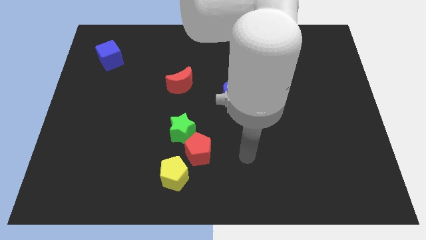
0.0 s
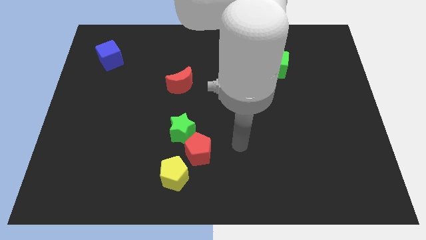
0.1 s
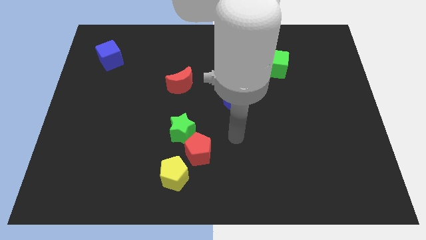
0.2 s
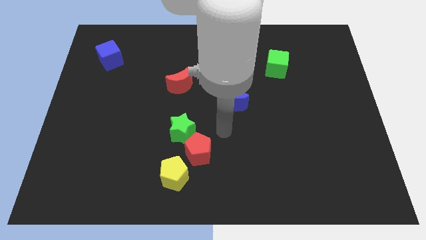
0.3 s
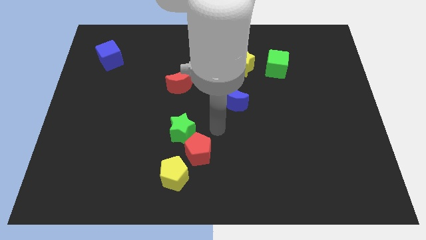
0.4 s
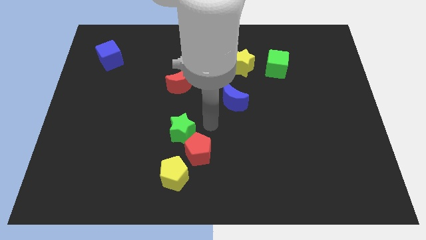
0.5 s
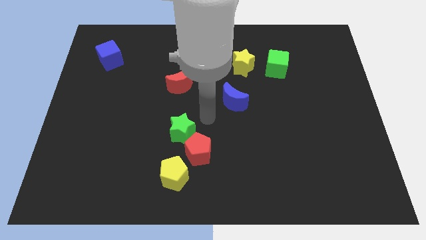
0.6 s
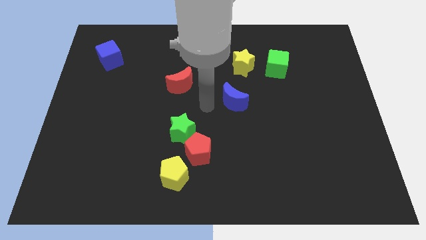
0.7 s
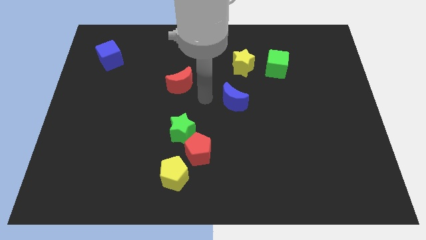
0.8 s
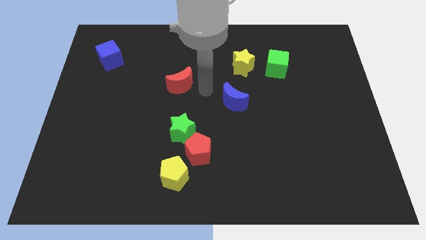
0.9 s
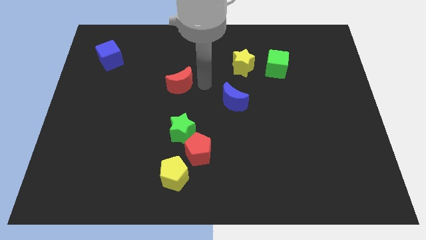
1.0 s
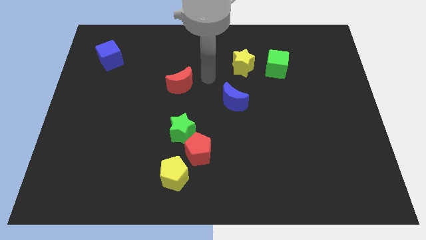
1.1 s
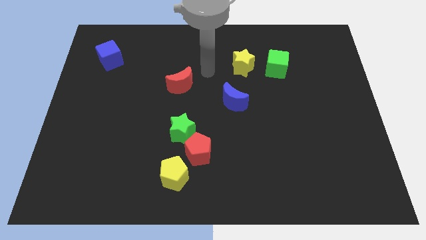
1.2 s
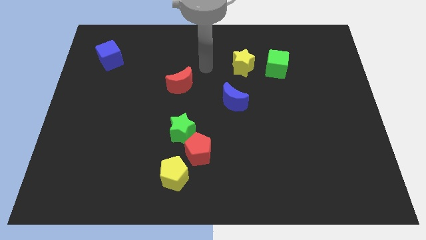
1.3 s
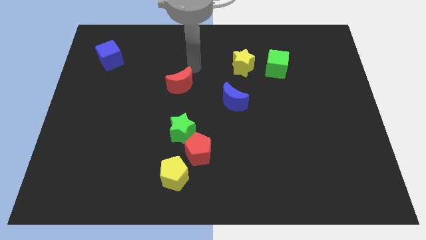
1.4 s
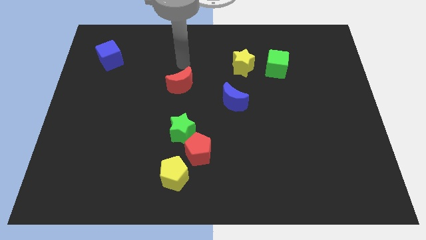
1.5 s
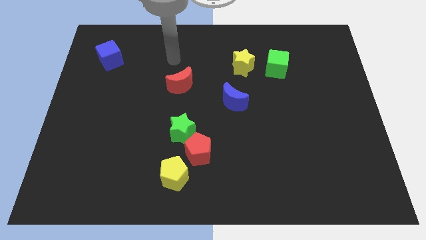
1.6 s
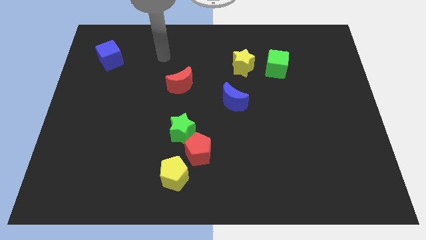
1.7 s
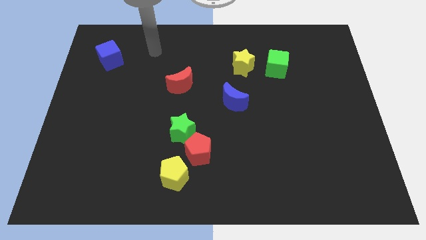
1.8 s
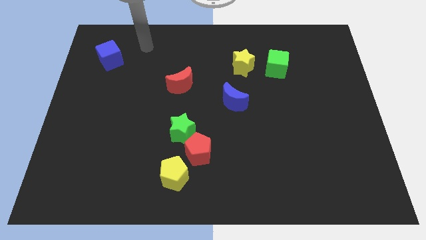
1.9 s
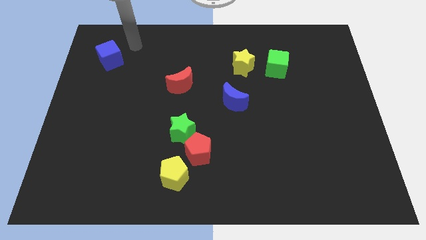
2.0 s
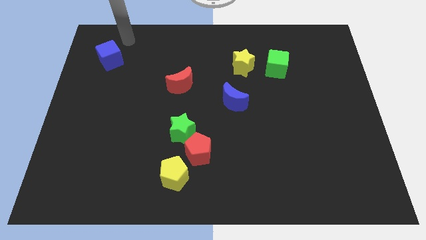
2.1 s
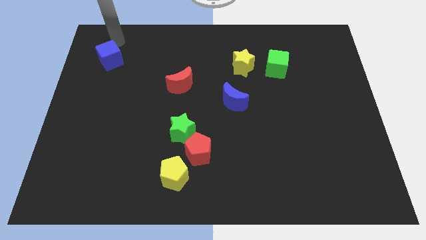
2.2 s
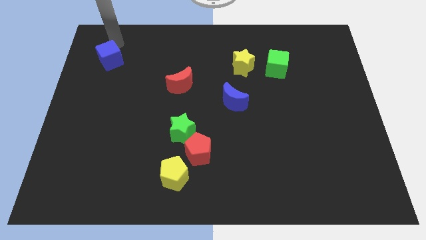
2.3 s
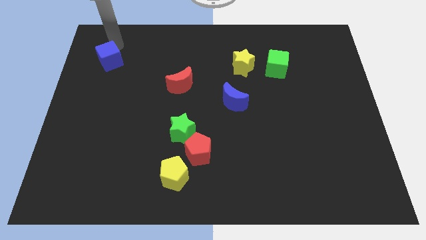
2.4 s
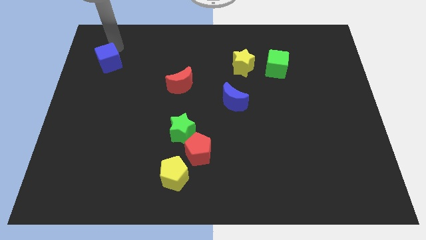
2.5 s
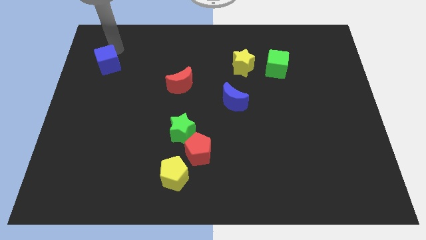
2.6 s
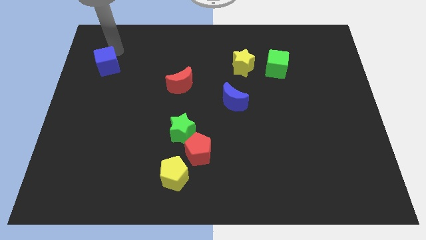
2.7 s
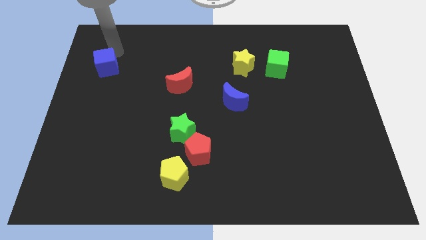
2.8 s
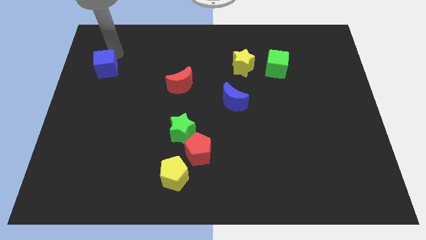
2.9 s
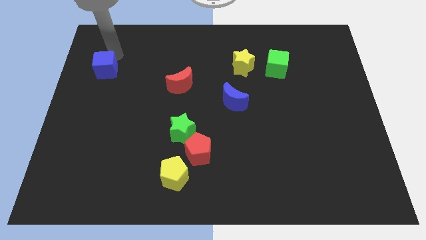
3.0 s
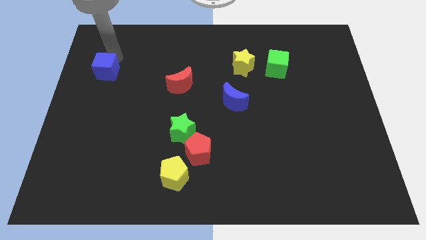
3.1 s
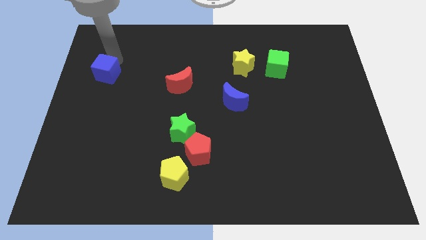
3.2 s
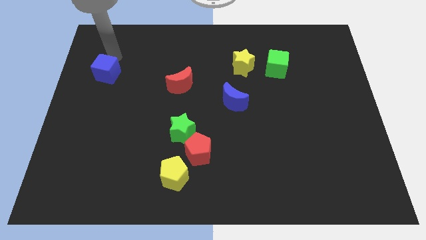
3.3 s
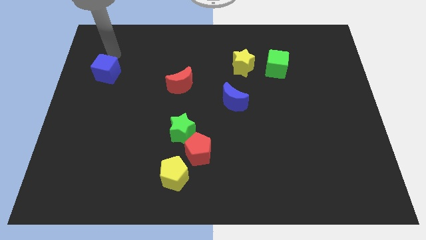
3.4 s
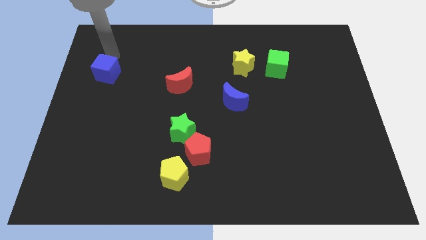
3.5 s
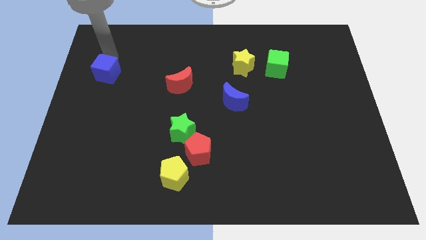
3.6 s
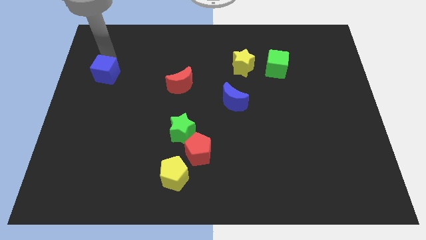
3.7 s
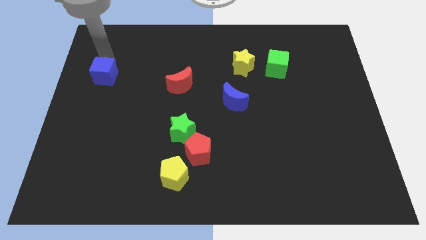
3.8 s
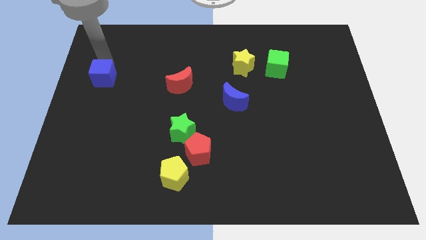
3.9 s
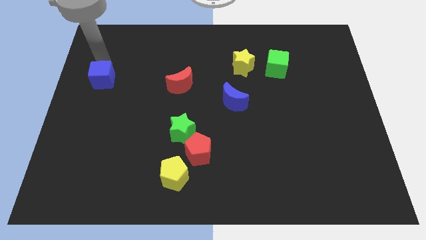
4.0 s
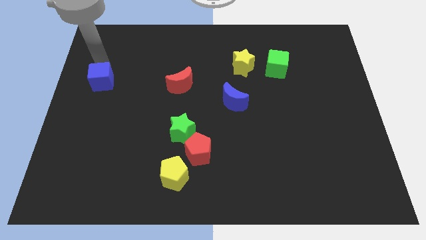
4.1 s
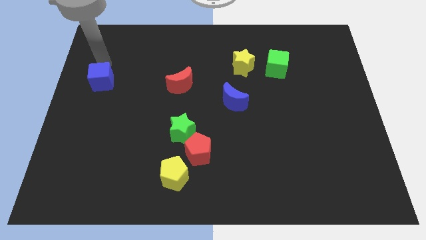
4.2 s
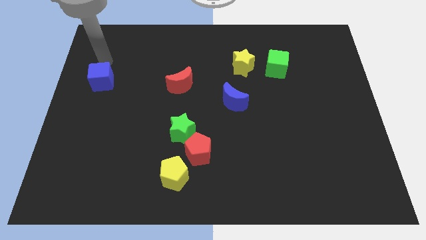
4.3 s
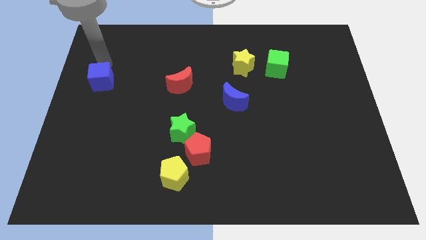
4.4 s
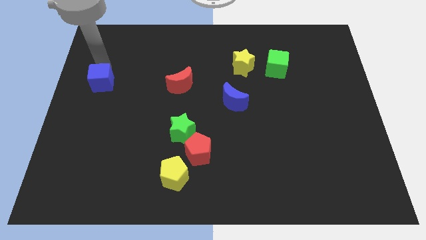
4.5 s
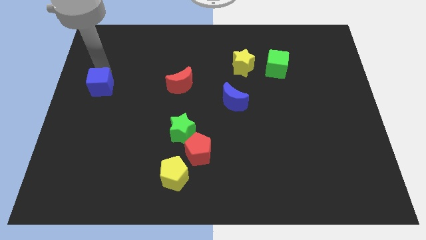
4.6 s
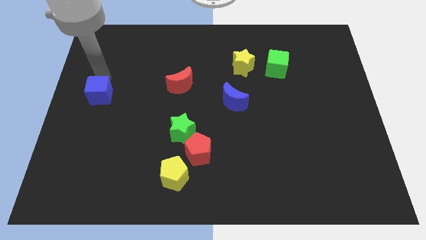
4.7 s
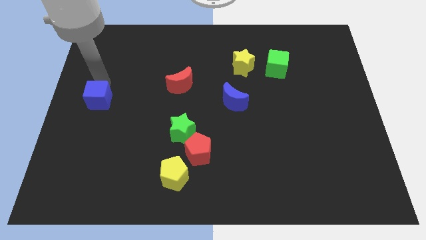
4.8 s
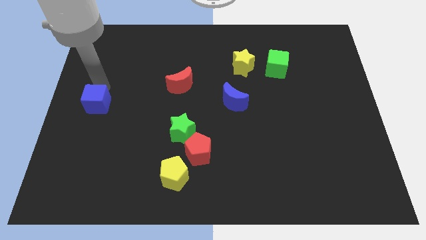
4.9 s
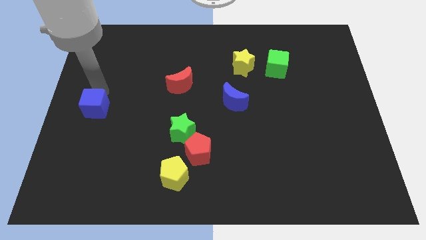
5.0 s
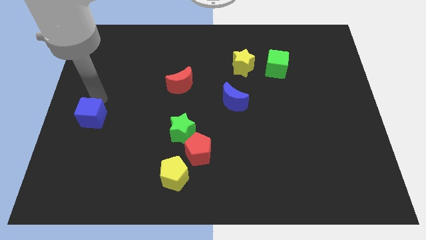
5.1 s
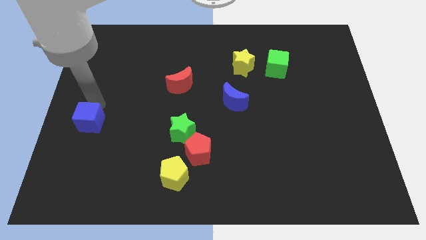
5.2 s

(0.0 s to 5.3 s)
push the blue cube downwards

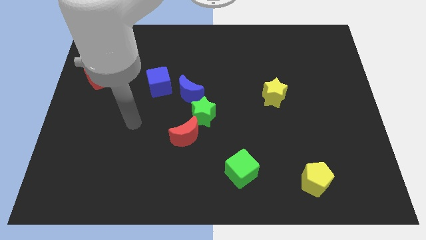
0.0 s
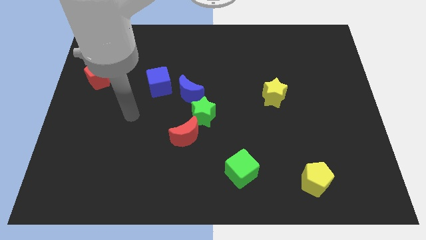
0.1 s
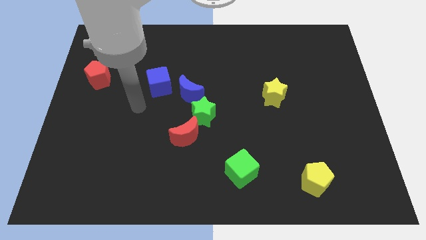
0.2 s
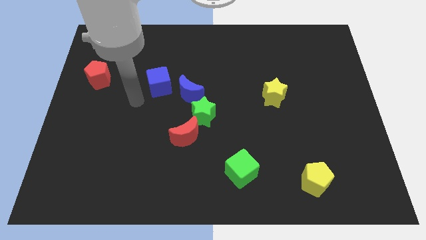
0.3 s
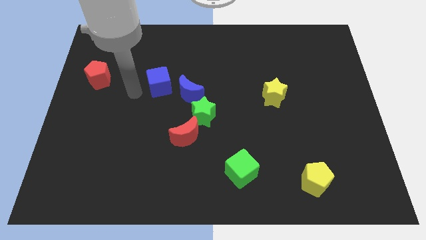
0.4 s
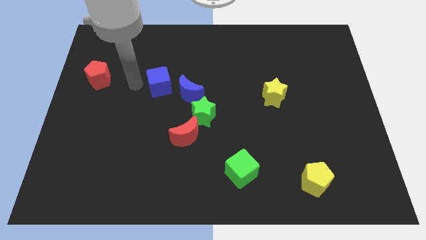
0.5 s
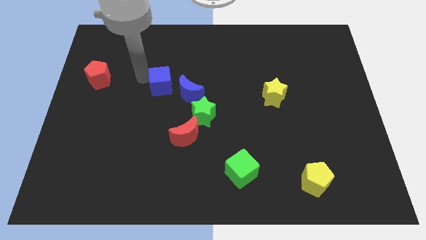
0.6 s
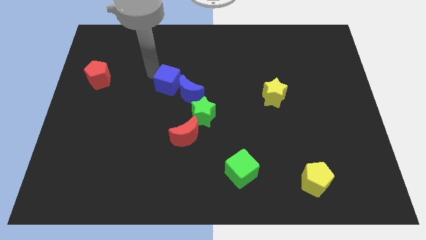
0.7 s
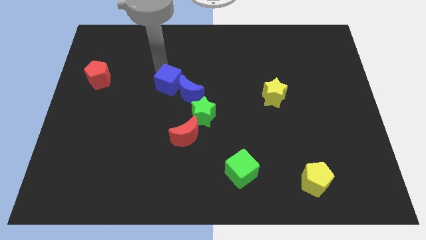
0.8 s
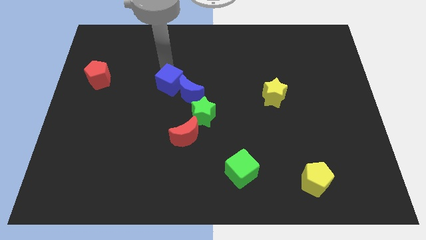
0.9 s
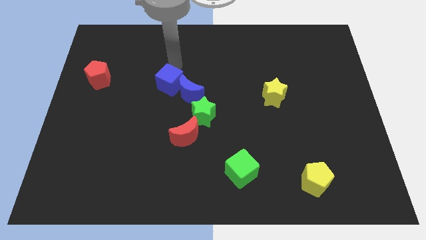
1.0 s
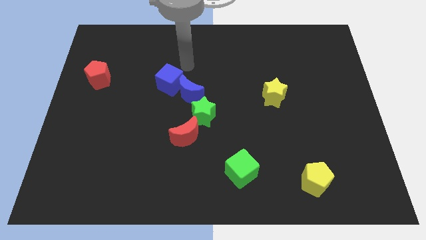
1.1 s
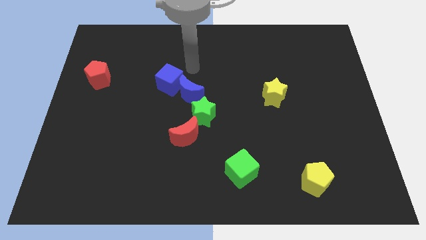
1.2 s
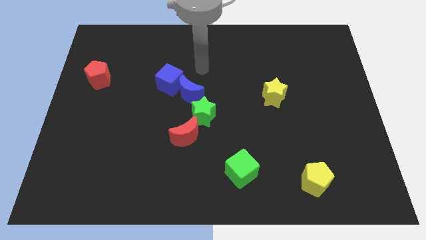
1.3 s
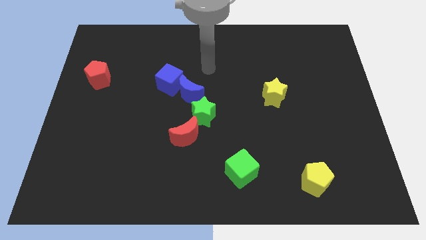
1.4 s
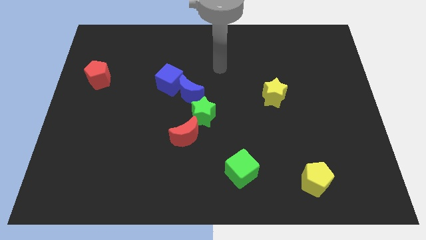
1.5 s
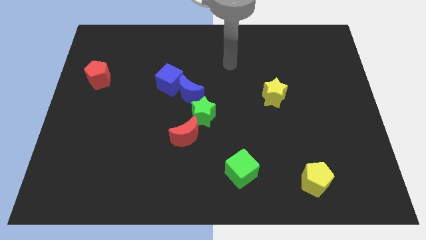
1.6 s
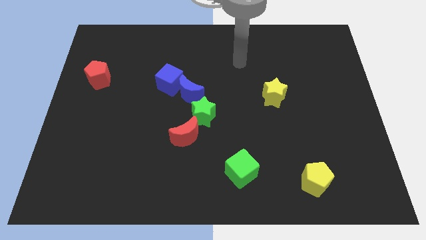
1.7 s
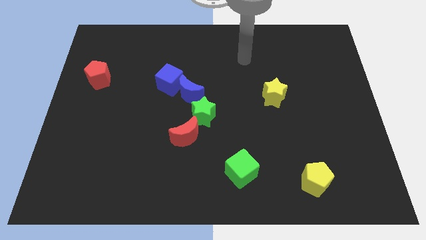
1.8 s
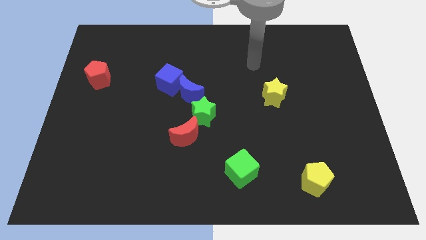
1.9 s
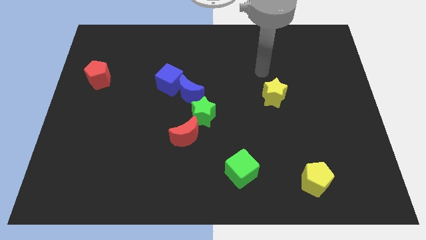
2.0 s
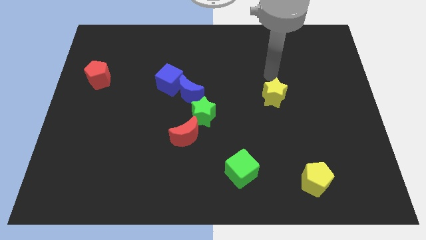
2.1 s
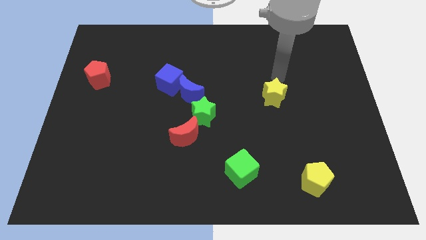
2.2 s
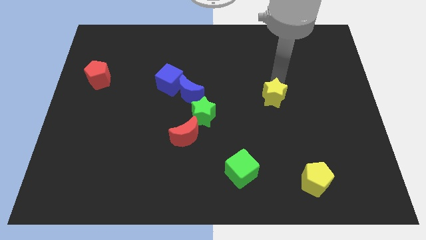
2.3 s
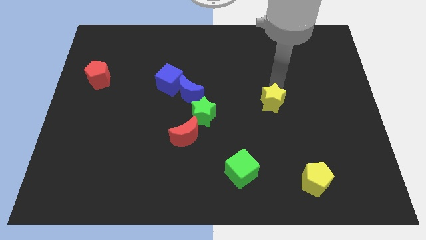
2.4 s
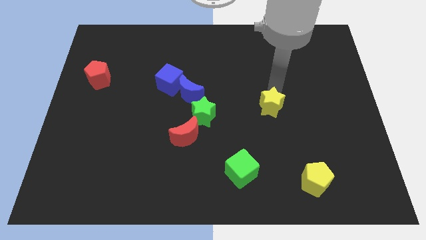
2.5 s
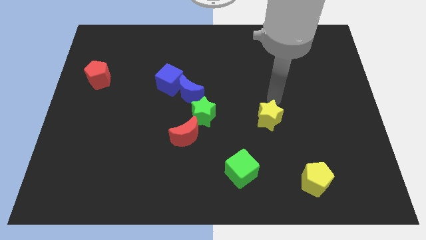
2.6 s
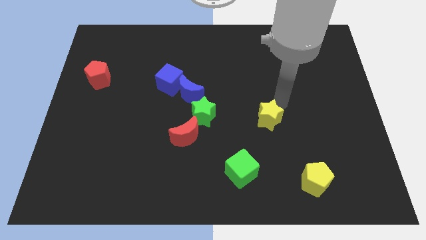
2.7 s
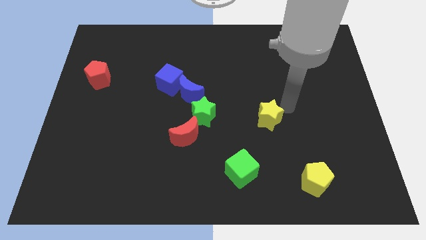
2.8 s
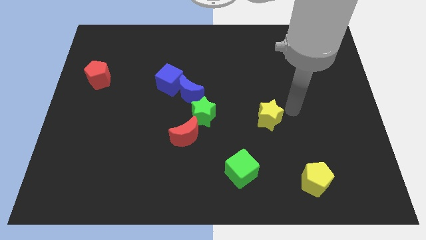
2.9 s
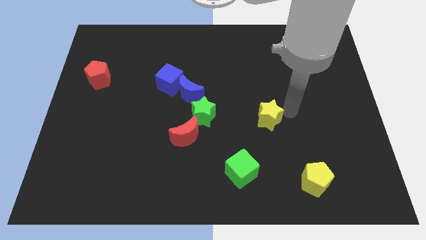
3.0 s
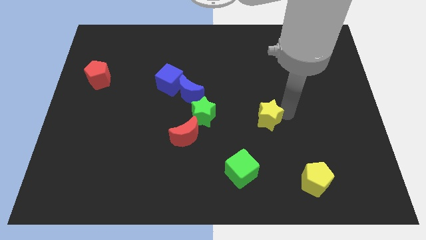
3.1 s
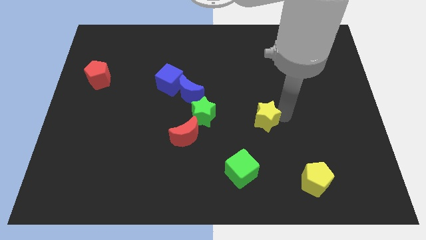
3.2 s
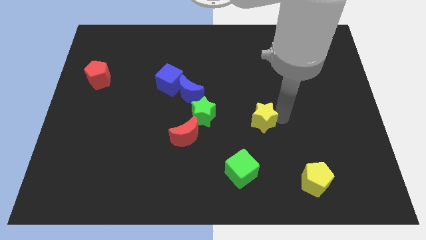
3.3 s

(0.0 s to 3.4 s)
slightly move the yellow star downwards and then to the left
